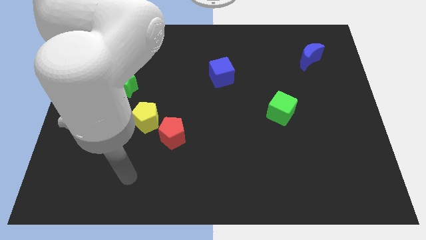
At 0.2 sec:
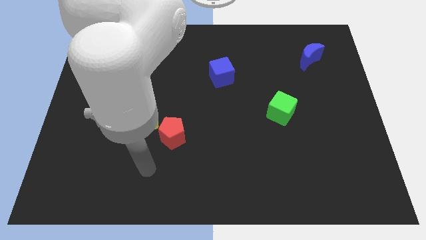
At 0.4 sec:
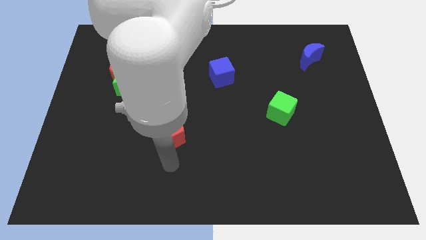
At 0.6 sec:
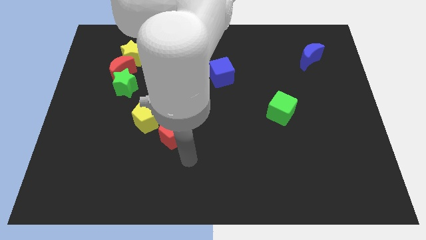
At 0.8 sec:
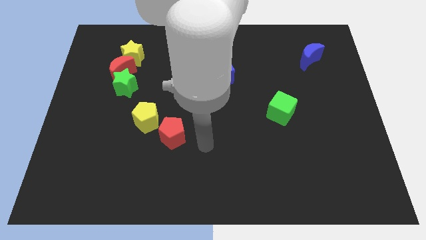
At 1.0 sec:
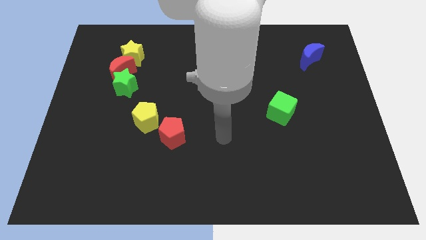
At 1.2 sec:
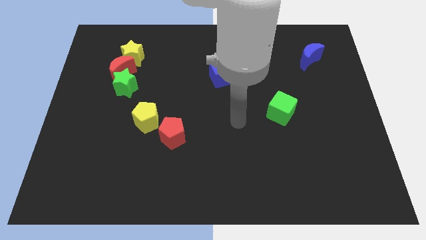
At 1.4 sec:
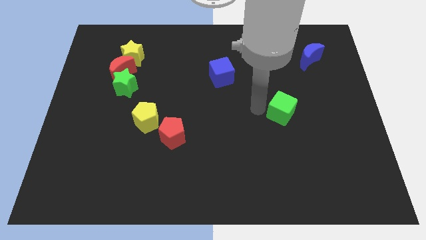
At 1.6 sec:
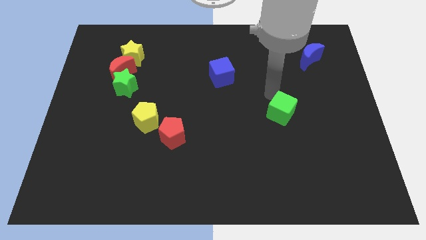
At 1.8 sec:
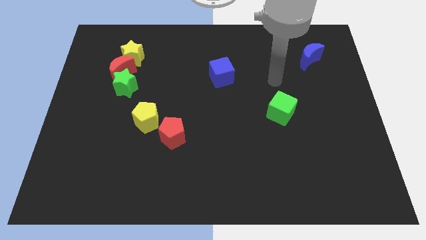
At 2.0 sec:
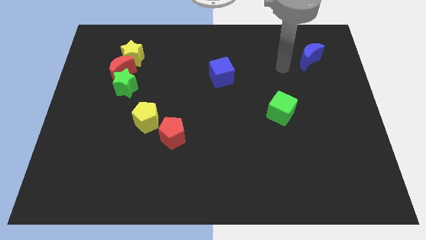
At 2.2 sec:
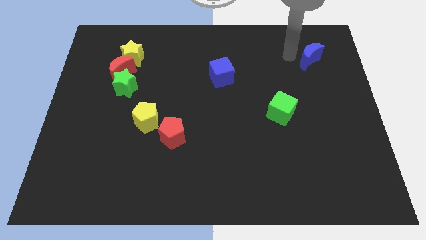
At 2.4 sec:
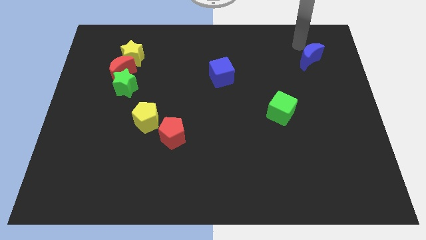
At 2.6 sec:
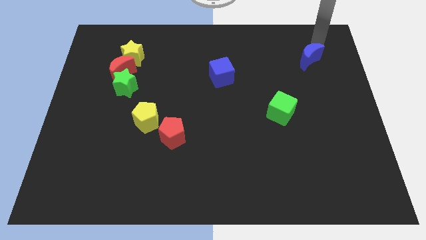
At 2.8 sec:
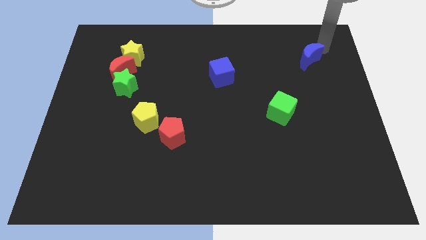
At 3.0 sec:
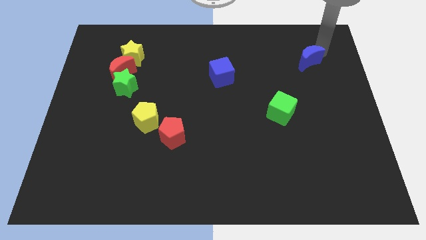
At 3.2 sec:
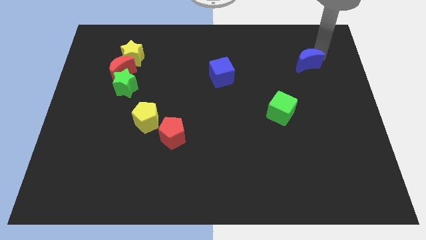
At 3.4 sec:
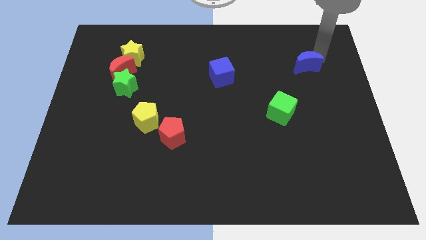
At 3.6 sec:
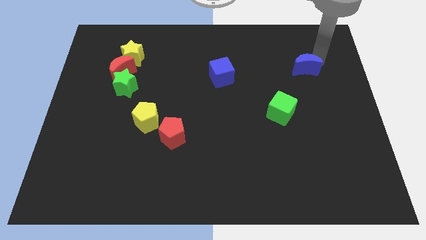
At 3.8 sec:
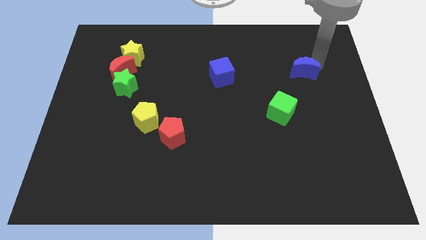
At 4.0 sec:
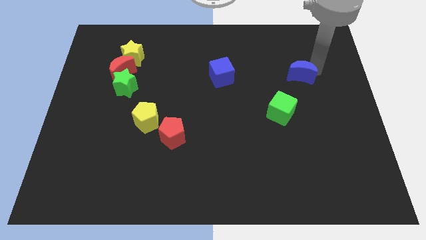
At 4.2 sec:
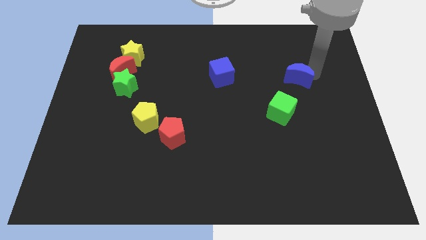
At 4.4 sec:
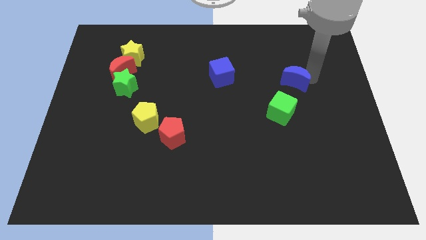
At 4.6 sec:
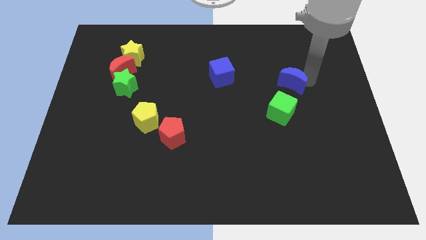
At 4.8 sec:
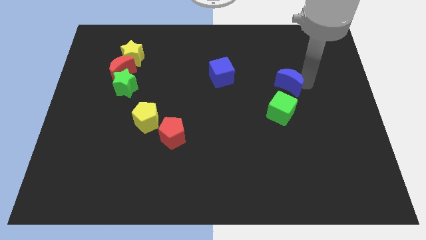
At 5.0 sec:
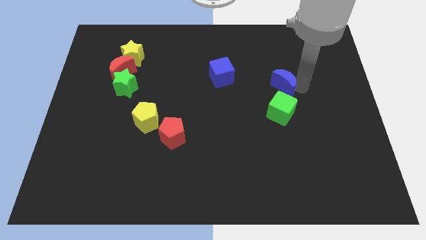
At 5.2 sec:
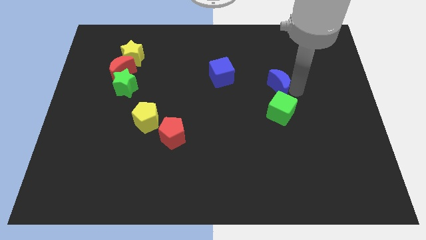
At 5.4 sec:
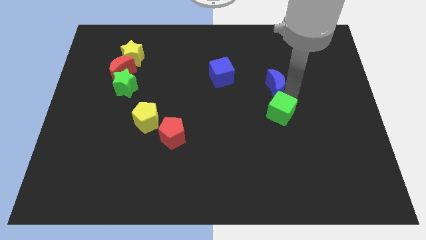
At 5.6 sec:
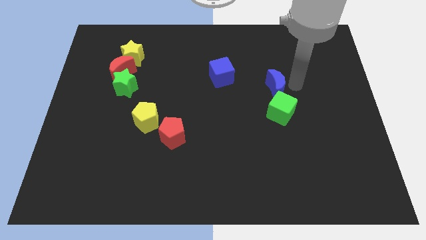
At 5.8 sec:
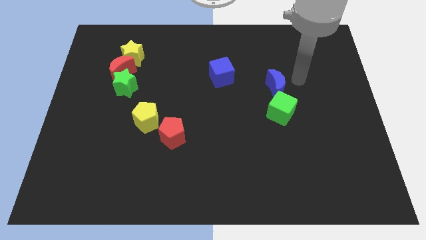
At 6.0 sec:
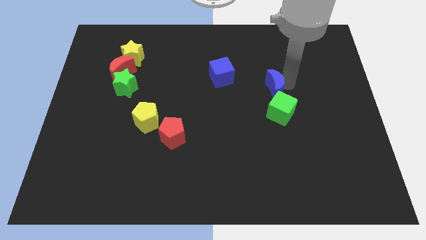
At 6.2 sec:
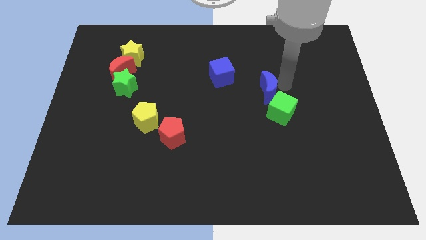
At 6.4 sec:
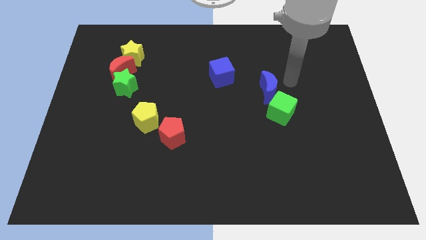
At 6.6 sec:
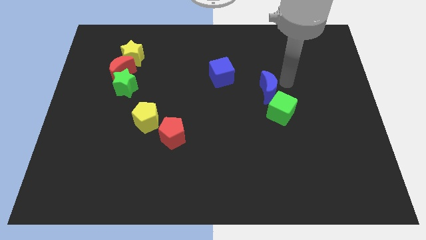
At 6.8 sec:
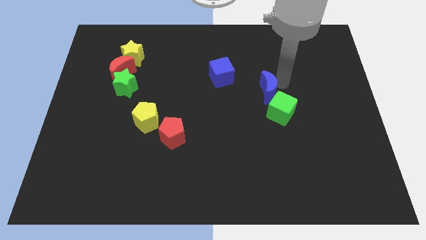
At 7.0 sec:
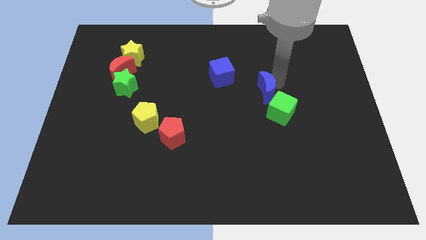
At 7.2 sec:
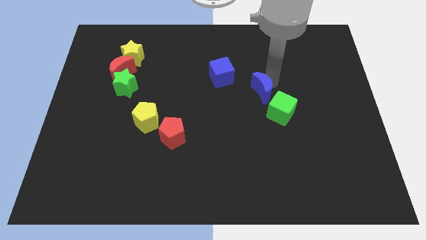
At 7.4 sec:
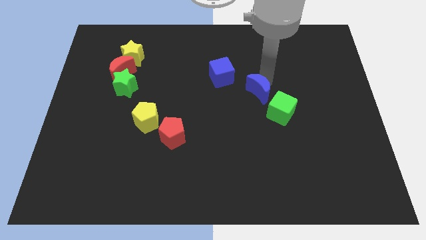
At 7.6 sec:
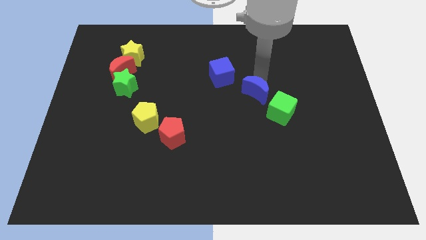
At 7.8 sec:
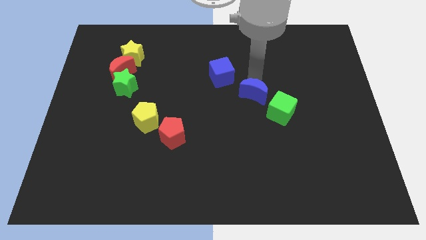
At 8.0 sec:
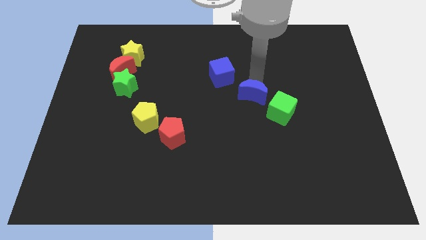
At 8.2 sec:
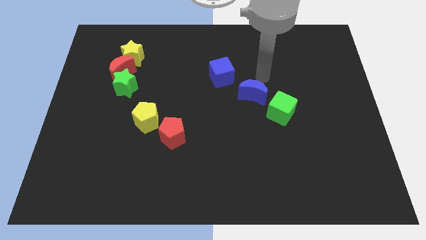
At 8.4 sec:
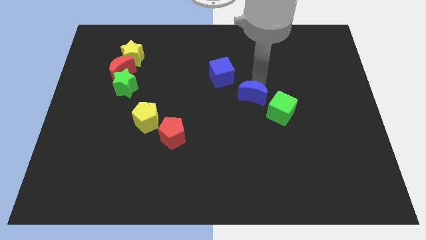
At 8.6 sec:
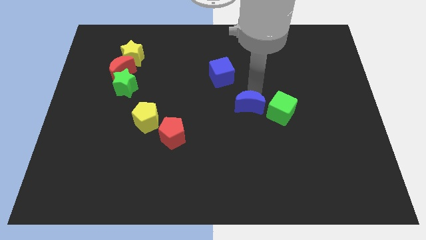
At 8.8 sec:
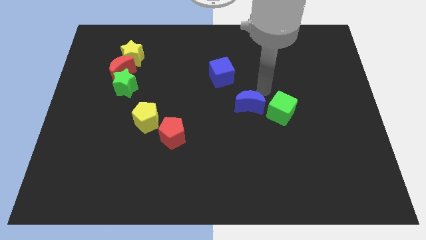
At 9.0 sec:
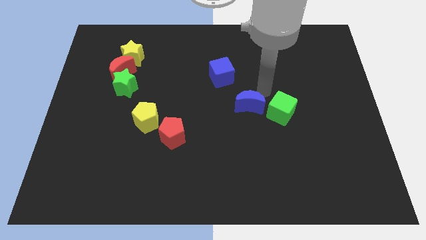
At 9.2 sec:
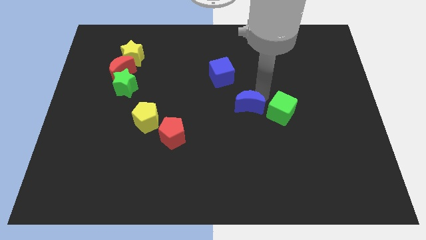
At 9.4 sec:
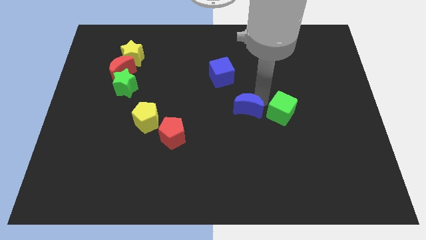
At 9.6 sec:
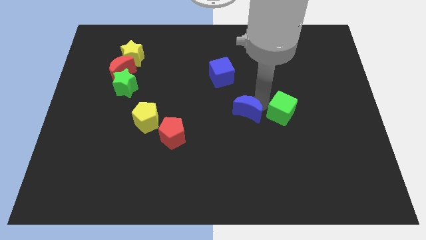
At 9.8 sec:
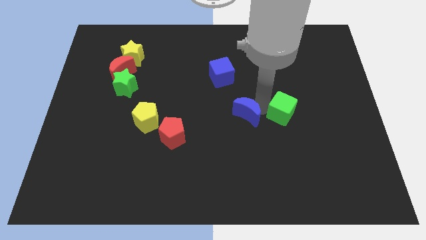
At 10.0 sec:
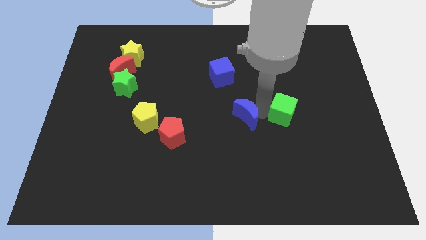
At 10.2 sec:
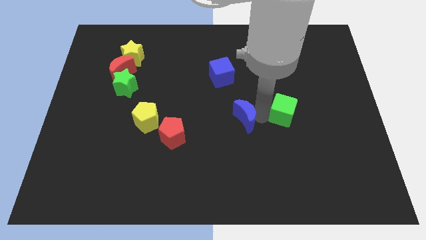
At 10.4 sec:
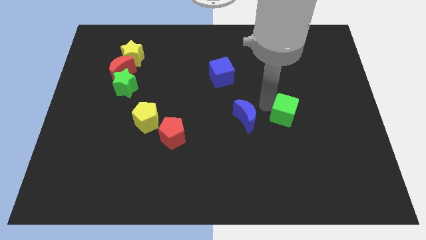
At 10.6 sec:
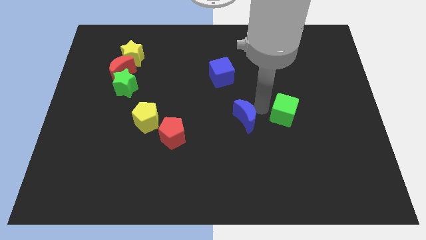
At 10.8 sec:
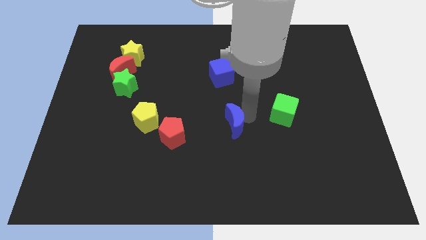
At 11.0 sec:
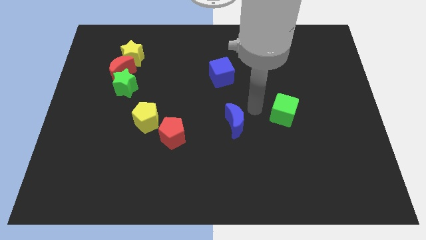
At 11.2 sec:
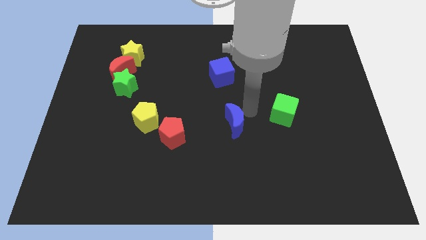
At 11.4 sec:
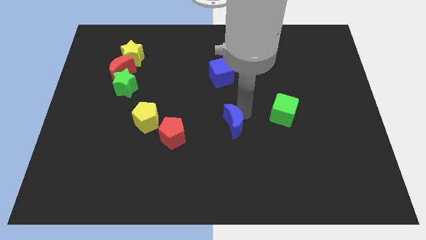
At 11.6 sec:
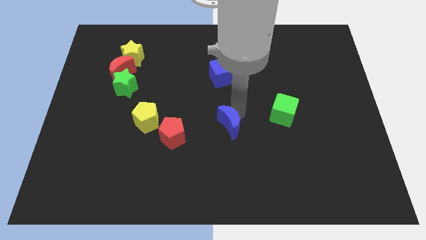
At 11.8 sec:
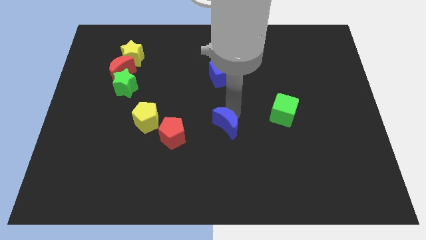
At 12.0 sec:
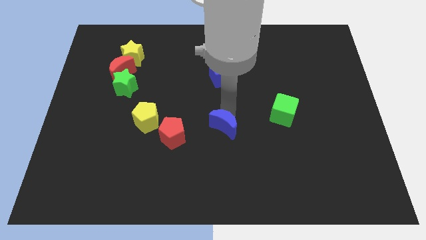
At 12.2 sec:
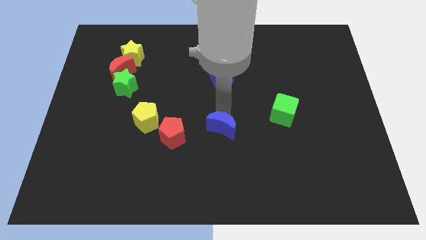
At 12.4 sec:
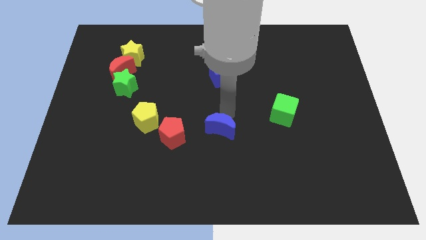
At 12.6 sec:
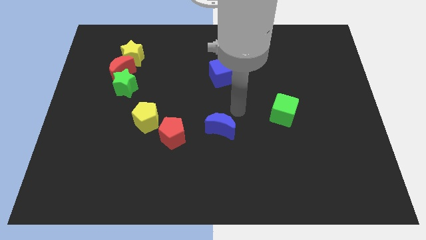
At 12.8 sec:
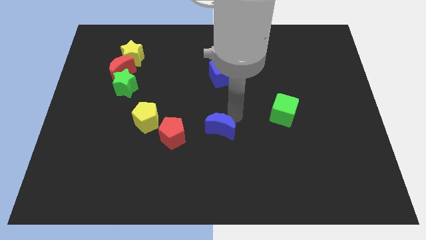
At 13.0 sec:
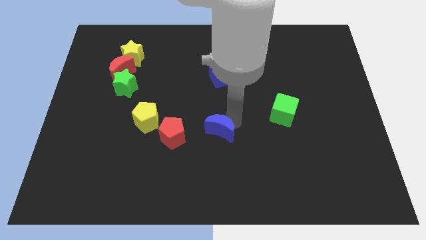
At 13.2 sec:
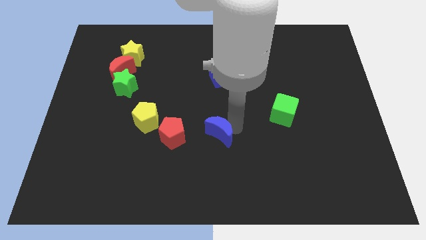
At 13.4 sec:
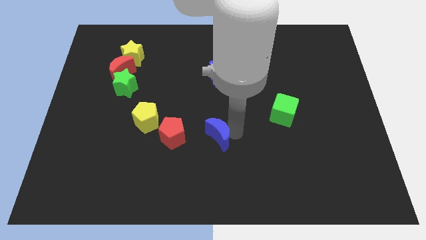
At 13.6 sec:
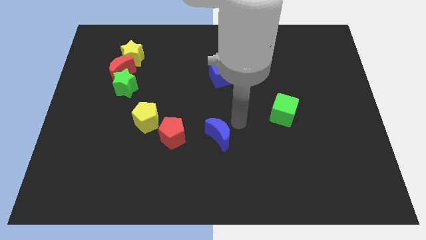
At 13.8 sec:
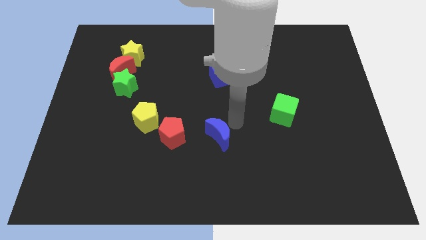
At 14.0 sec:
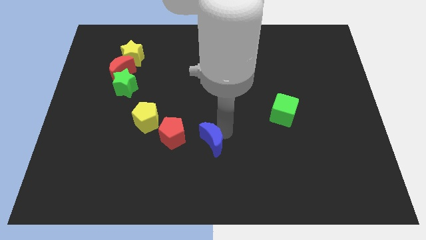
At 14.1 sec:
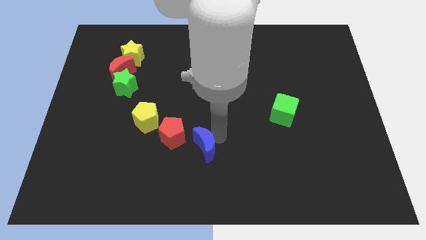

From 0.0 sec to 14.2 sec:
push the blue moon to the bottom right side of the red pentagon
